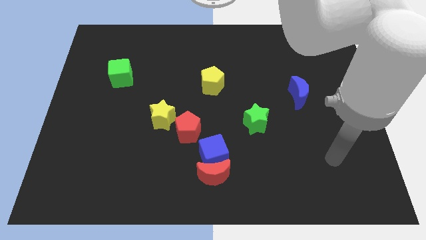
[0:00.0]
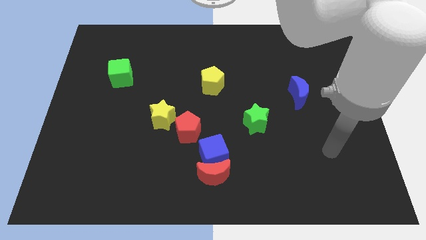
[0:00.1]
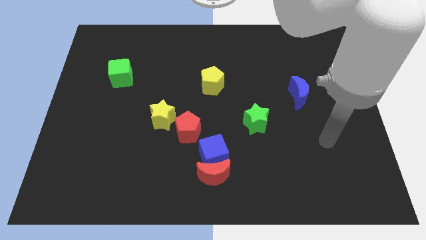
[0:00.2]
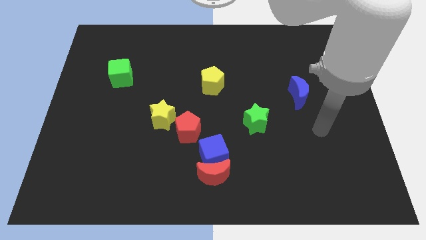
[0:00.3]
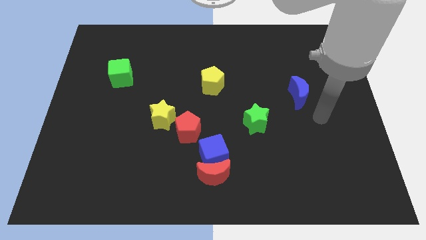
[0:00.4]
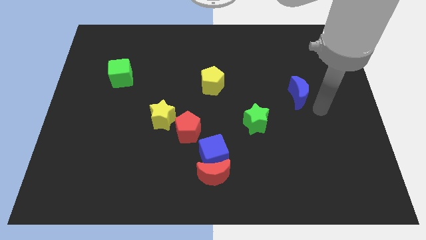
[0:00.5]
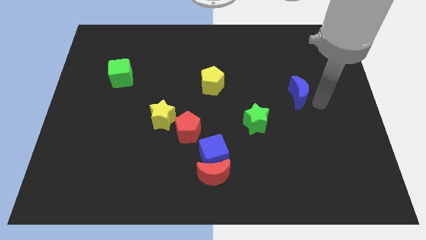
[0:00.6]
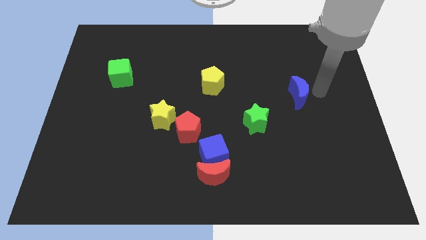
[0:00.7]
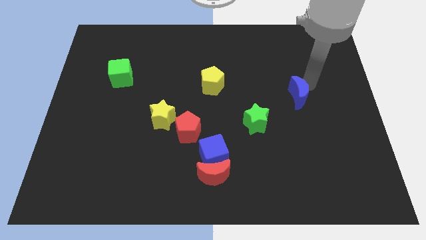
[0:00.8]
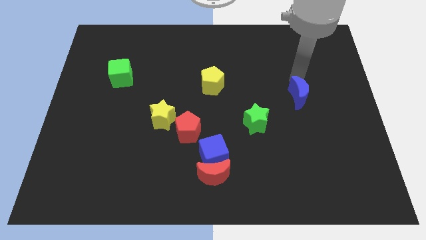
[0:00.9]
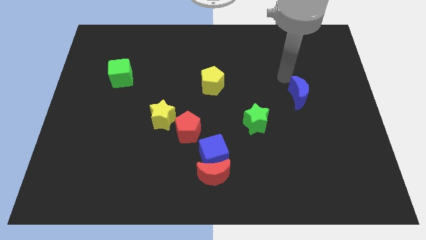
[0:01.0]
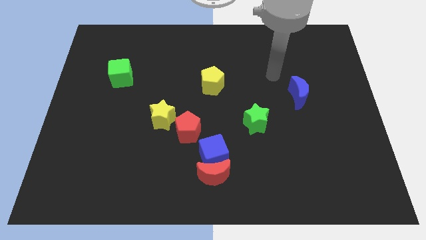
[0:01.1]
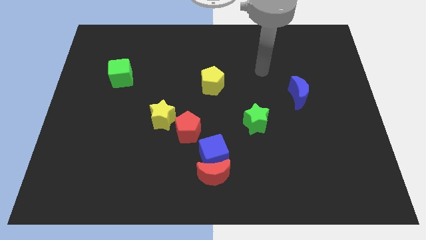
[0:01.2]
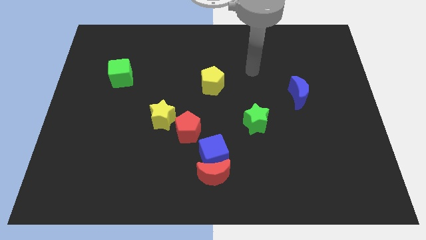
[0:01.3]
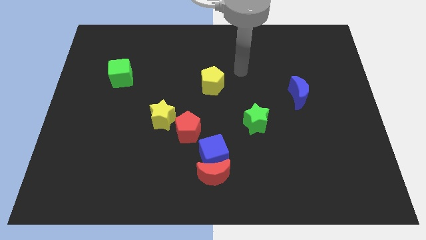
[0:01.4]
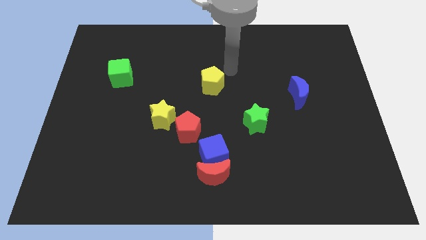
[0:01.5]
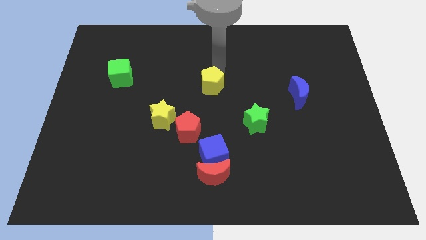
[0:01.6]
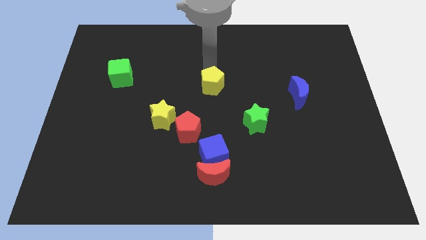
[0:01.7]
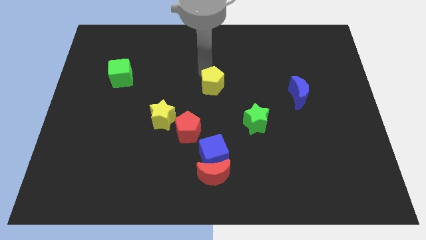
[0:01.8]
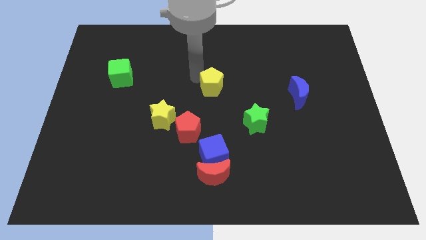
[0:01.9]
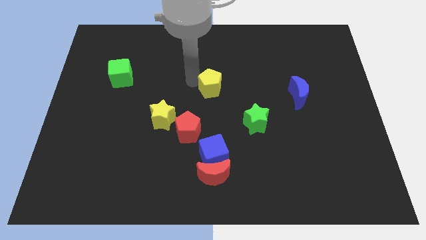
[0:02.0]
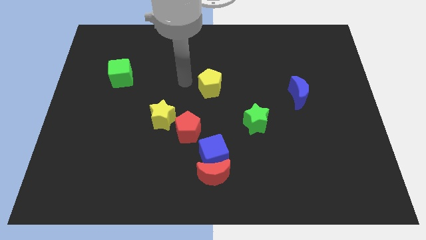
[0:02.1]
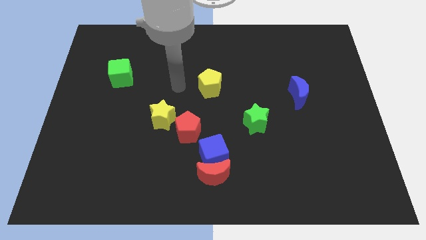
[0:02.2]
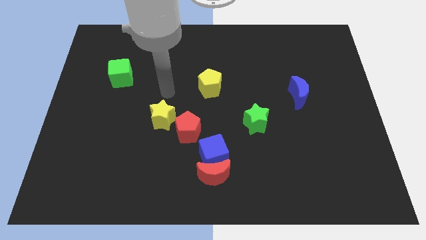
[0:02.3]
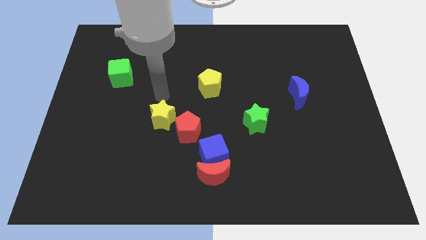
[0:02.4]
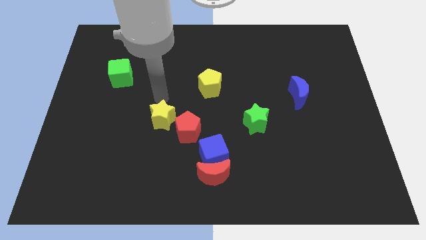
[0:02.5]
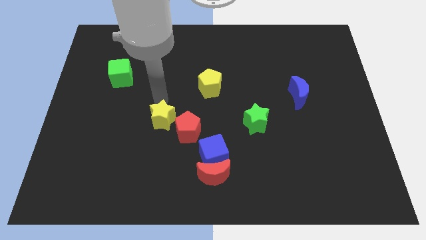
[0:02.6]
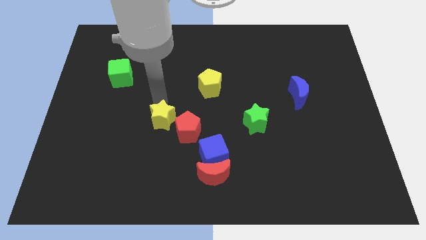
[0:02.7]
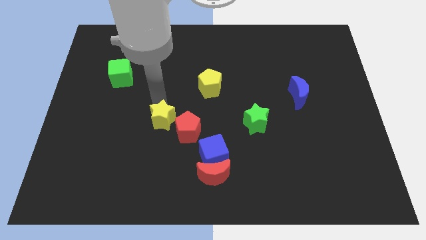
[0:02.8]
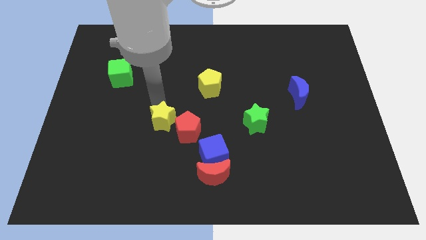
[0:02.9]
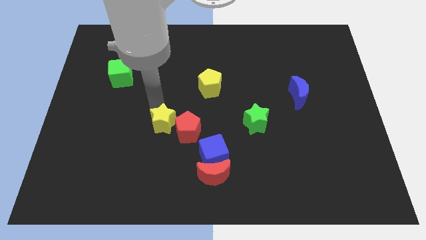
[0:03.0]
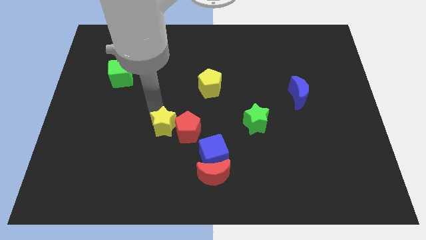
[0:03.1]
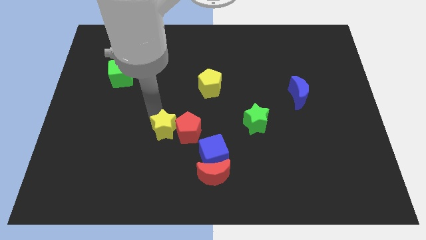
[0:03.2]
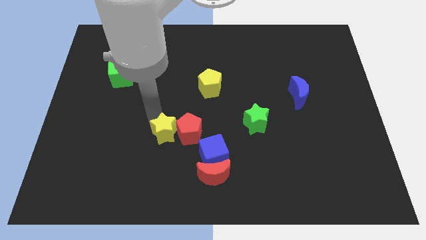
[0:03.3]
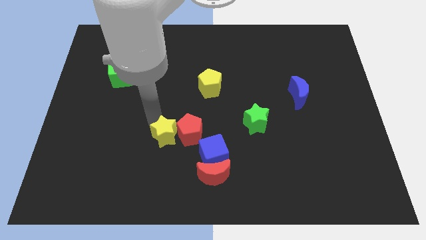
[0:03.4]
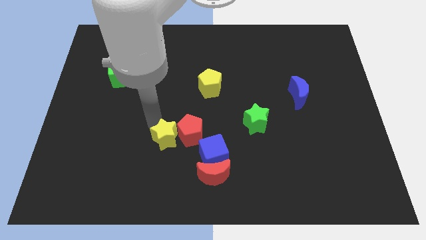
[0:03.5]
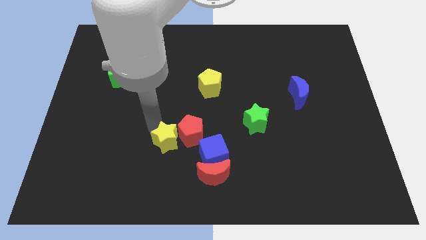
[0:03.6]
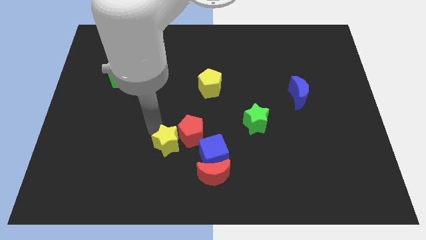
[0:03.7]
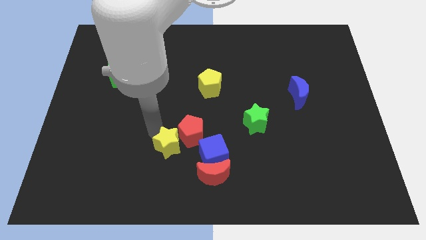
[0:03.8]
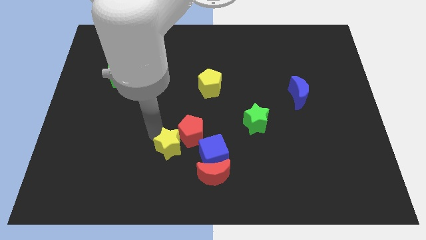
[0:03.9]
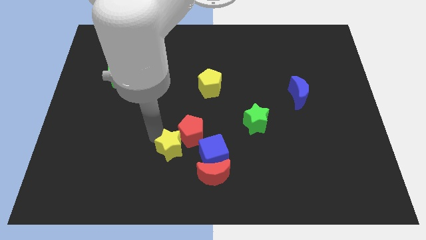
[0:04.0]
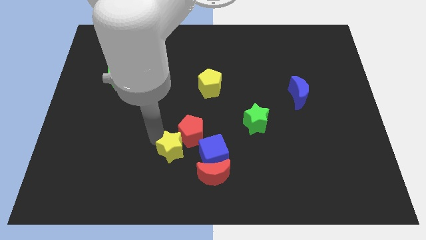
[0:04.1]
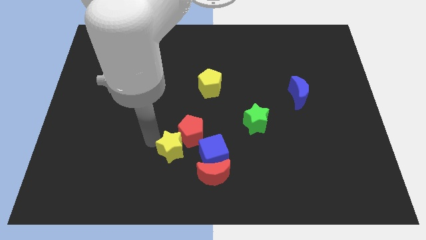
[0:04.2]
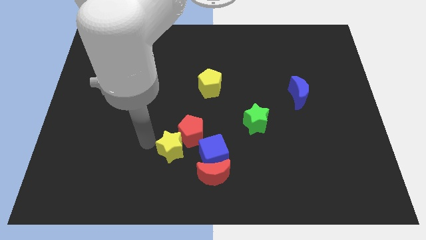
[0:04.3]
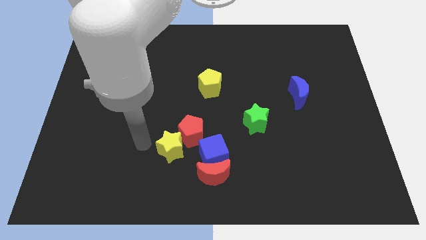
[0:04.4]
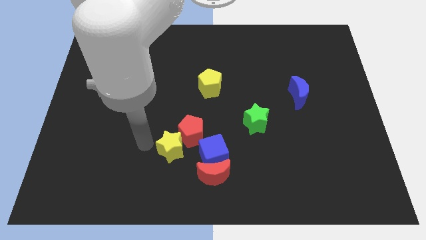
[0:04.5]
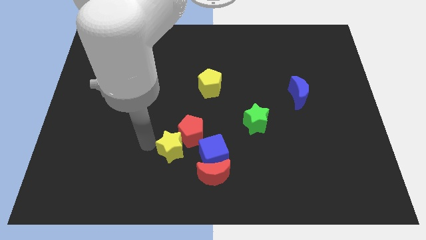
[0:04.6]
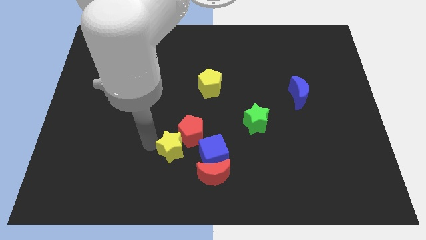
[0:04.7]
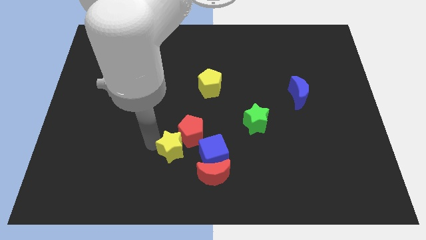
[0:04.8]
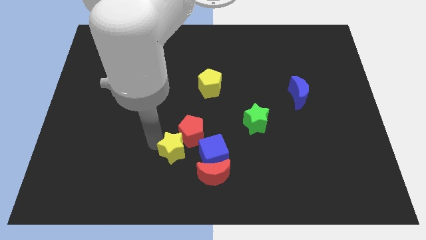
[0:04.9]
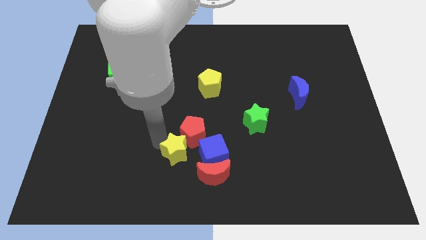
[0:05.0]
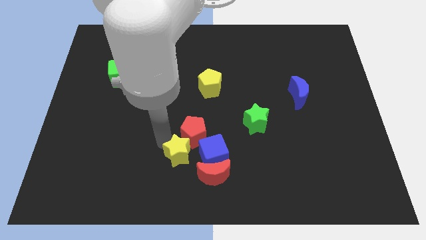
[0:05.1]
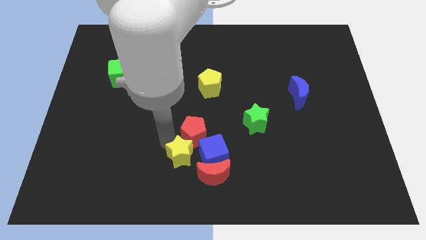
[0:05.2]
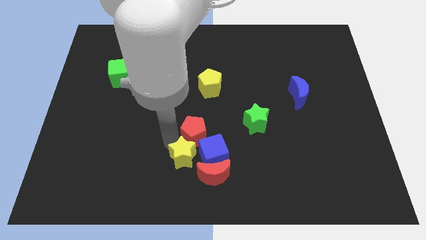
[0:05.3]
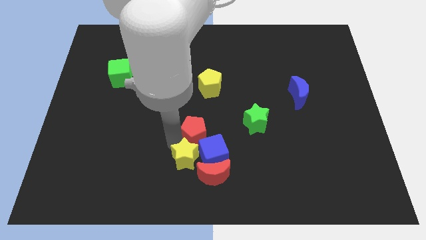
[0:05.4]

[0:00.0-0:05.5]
move the yellow star to the blue cube

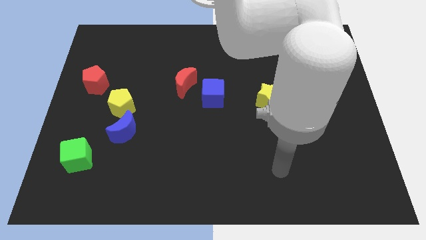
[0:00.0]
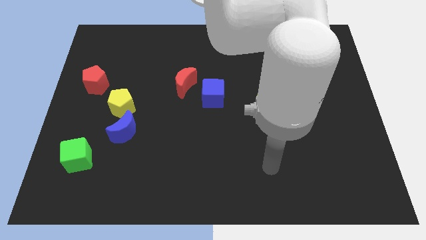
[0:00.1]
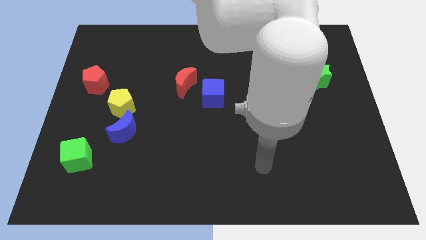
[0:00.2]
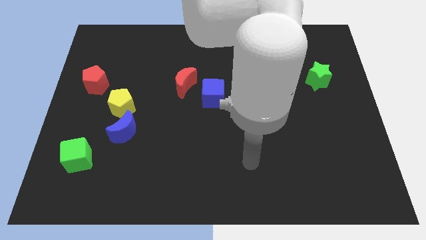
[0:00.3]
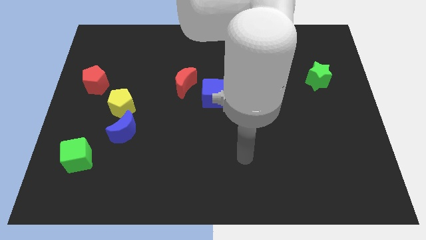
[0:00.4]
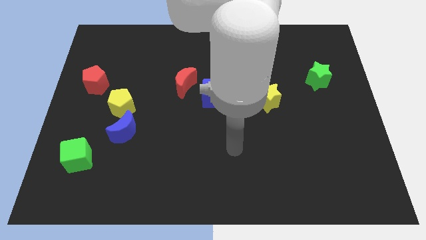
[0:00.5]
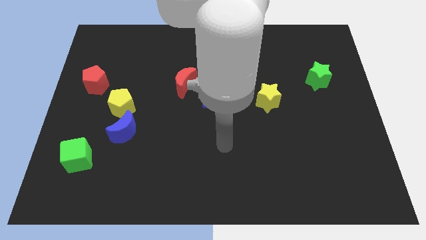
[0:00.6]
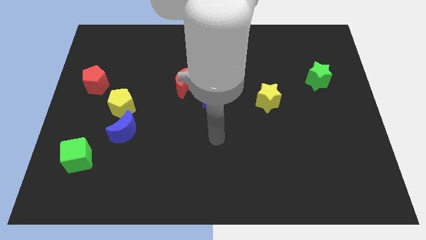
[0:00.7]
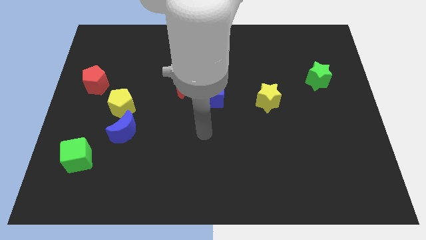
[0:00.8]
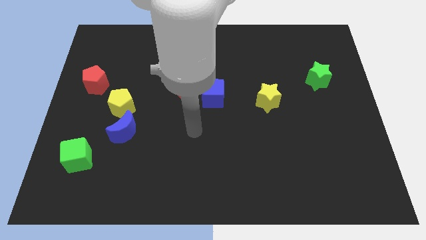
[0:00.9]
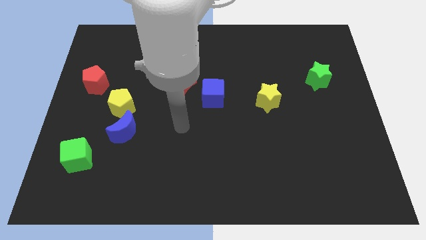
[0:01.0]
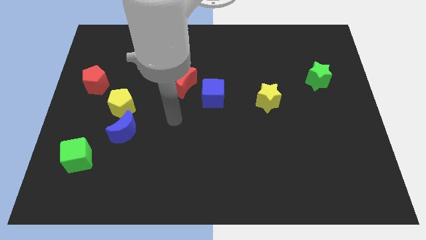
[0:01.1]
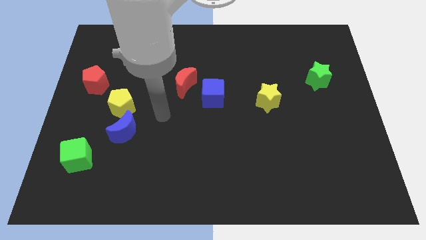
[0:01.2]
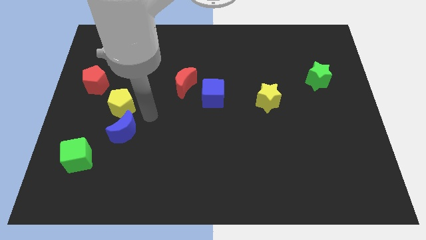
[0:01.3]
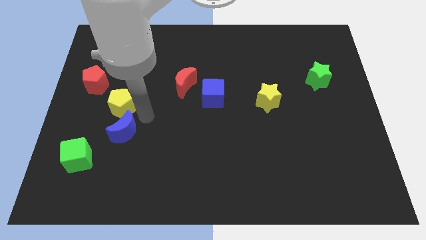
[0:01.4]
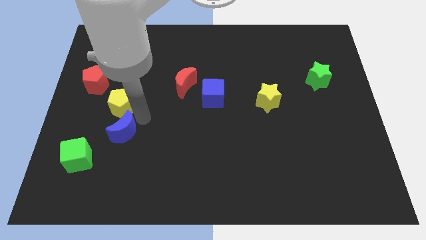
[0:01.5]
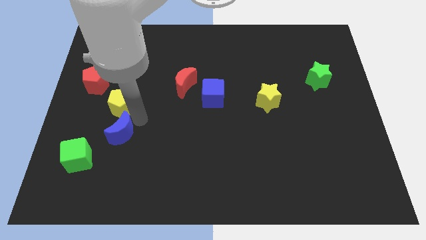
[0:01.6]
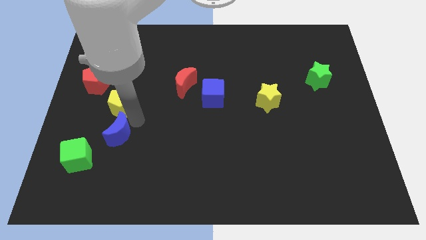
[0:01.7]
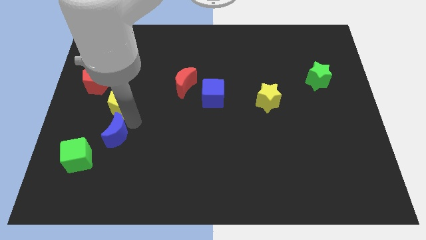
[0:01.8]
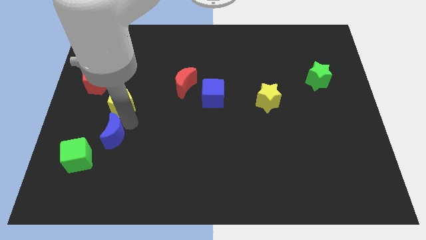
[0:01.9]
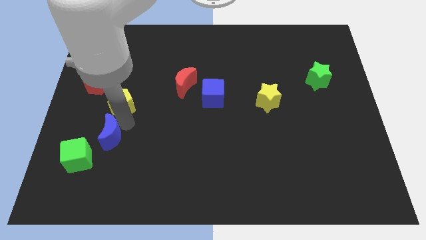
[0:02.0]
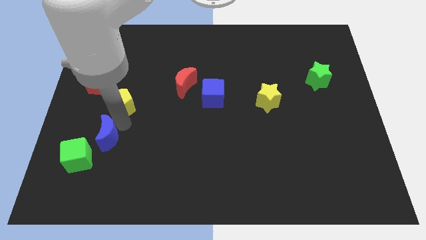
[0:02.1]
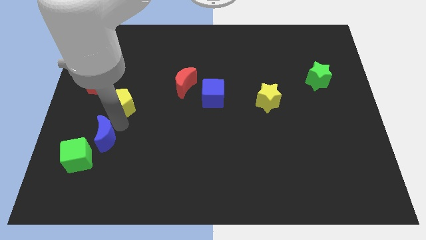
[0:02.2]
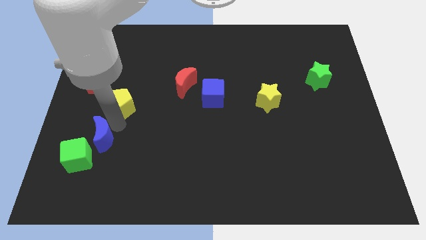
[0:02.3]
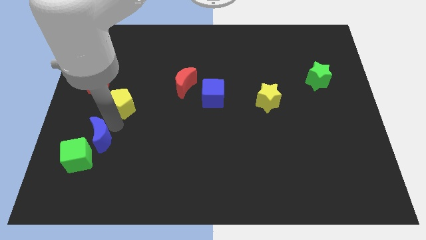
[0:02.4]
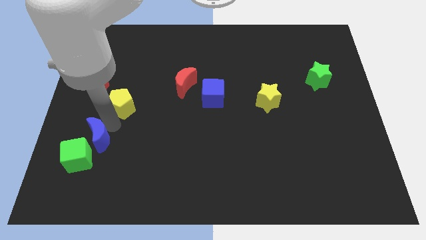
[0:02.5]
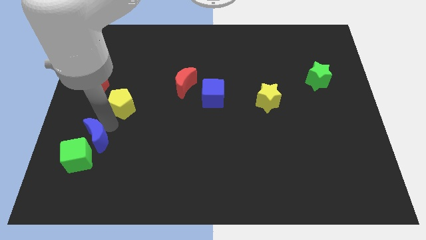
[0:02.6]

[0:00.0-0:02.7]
put the blue moon to the green cube
